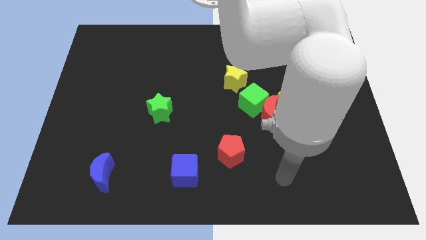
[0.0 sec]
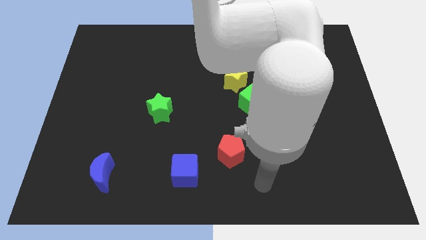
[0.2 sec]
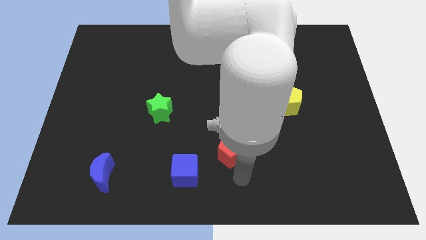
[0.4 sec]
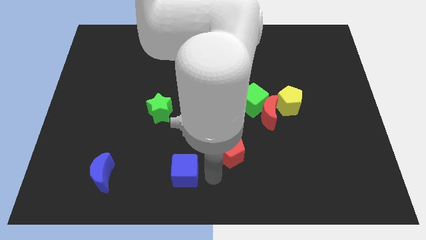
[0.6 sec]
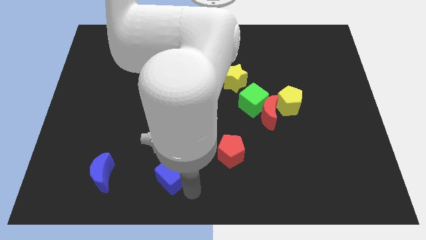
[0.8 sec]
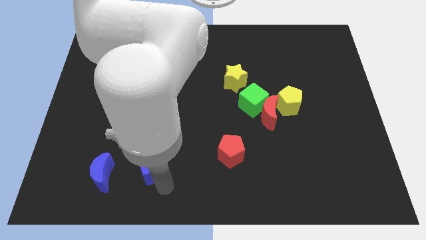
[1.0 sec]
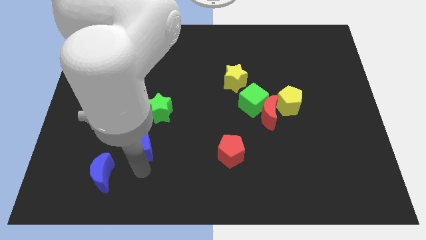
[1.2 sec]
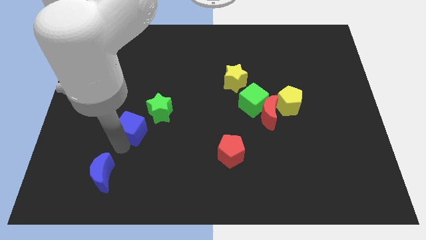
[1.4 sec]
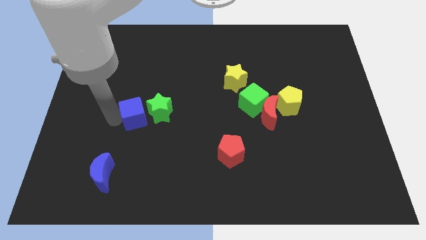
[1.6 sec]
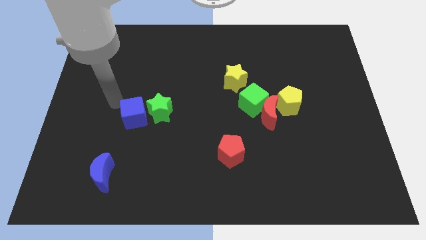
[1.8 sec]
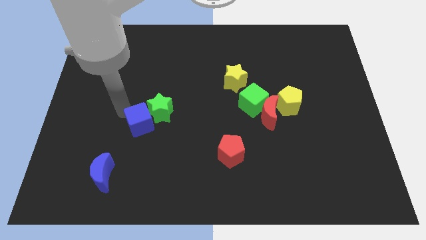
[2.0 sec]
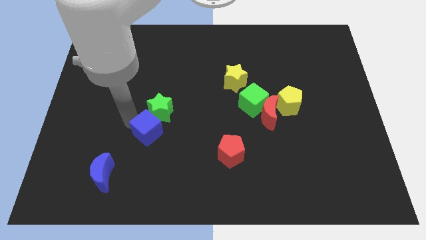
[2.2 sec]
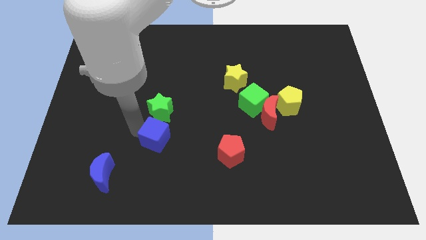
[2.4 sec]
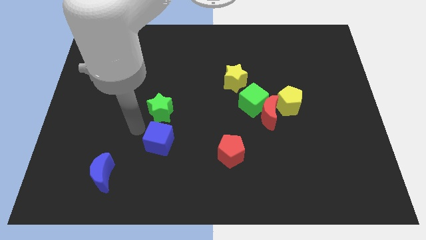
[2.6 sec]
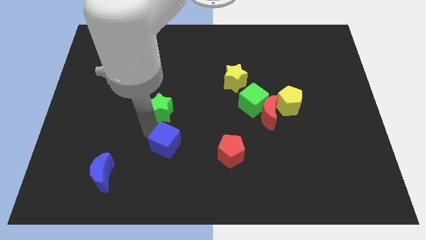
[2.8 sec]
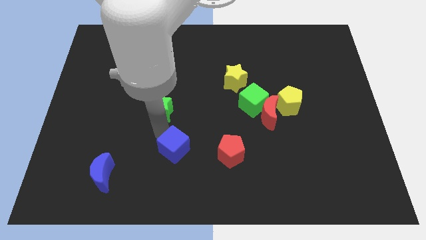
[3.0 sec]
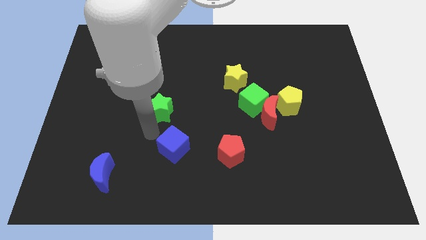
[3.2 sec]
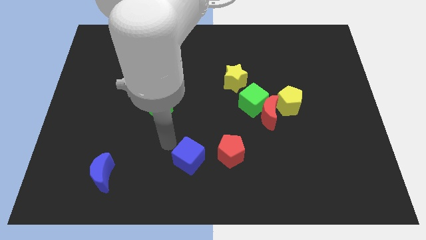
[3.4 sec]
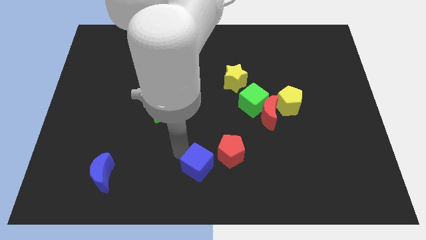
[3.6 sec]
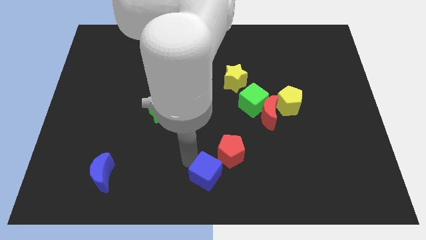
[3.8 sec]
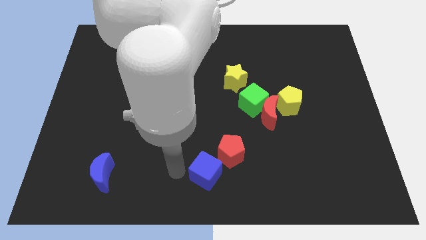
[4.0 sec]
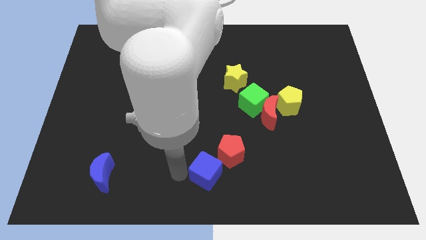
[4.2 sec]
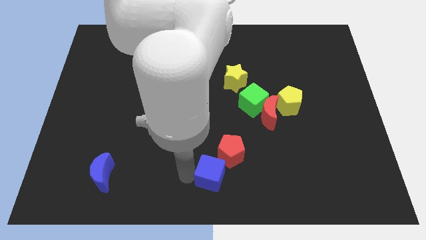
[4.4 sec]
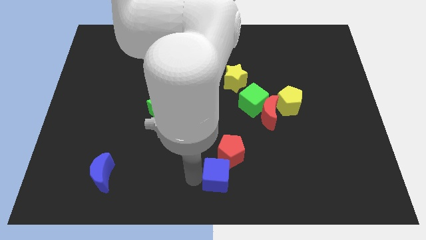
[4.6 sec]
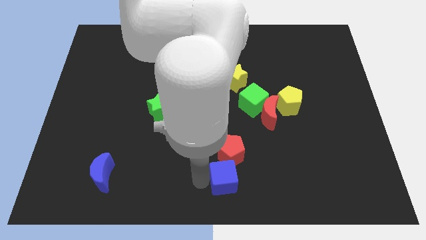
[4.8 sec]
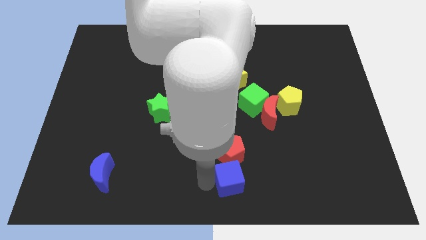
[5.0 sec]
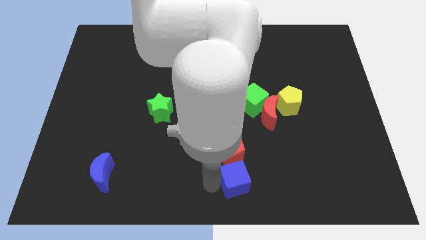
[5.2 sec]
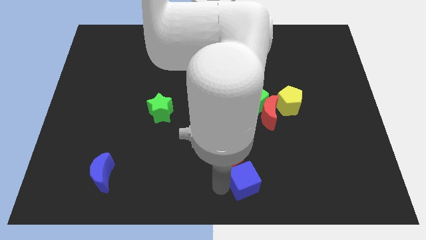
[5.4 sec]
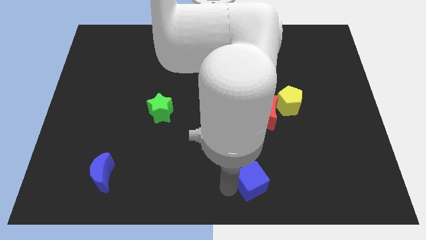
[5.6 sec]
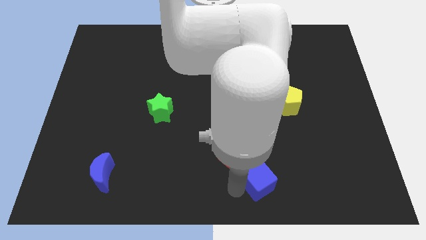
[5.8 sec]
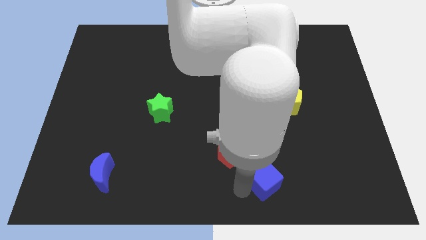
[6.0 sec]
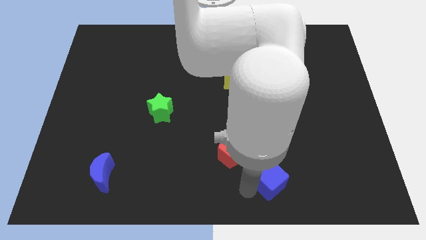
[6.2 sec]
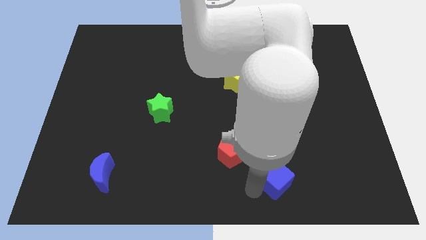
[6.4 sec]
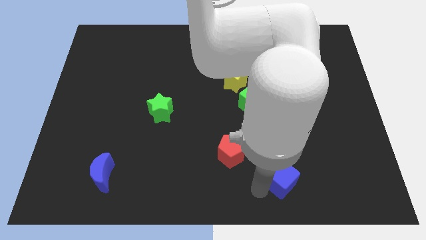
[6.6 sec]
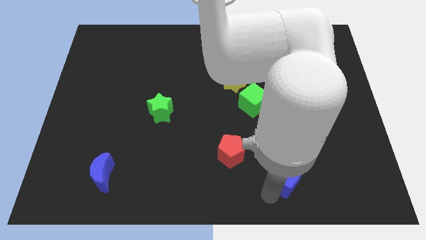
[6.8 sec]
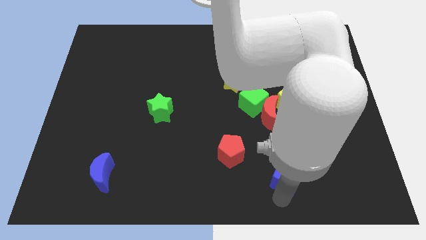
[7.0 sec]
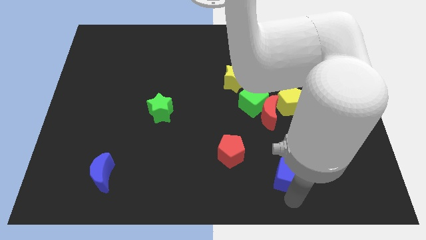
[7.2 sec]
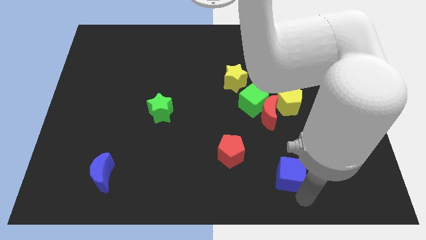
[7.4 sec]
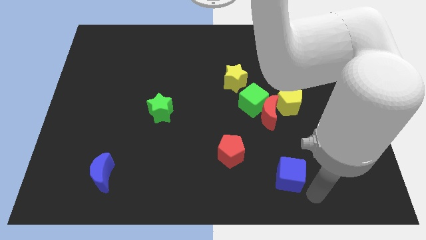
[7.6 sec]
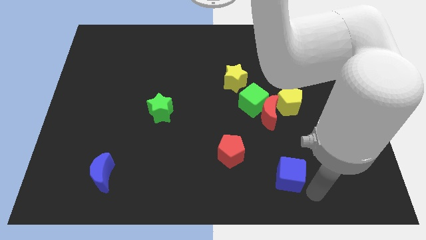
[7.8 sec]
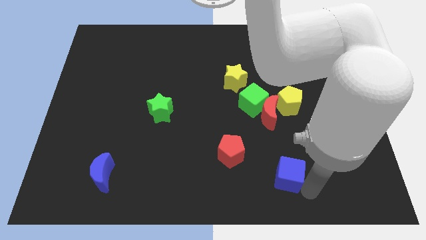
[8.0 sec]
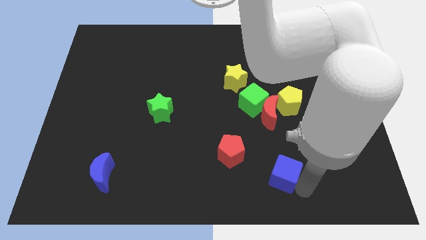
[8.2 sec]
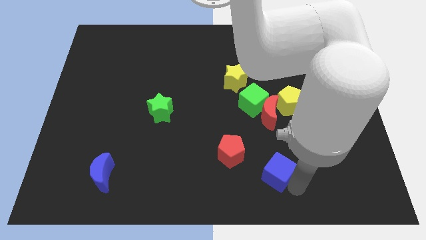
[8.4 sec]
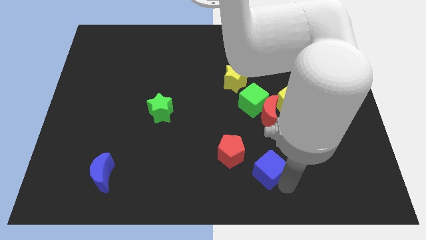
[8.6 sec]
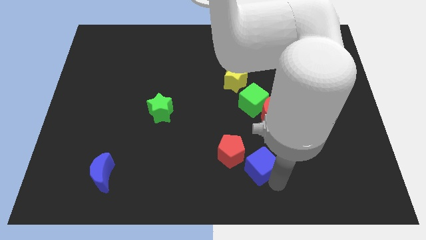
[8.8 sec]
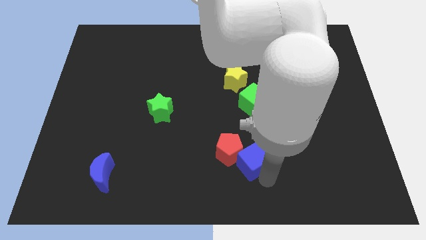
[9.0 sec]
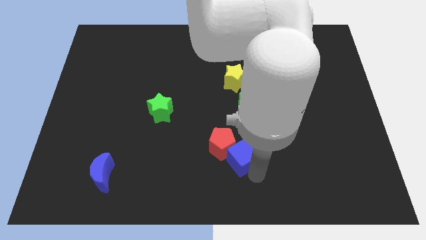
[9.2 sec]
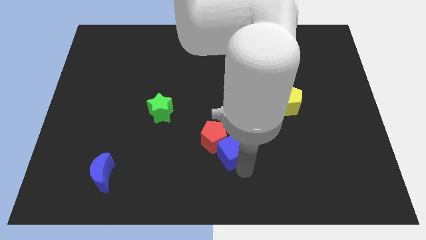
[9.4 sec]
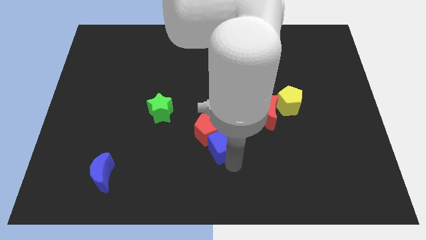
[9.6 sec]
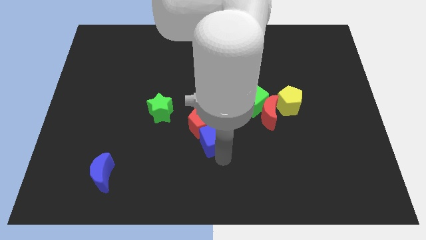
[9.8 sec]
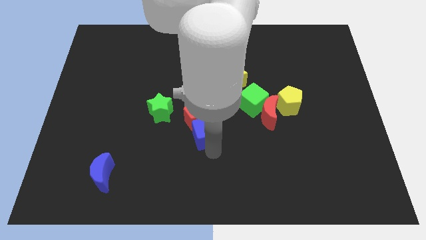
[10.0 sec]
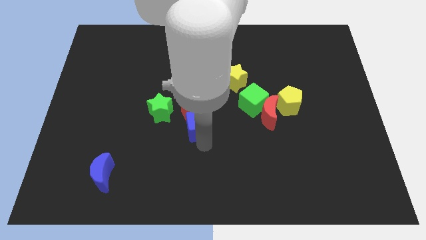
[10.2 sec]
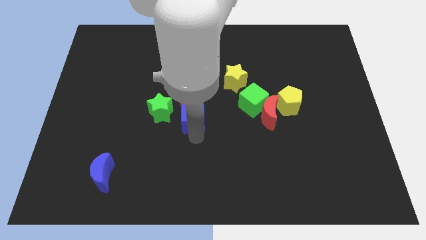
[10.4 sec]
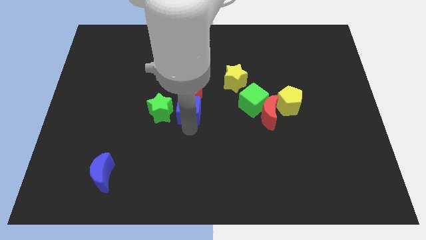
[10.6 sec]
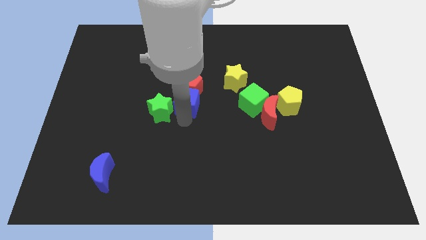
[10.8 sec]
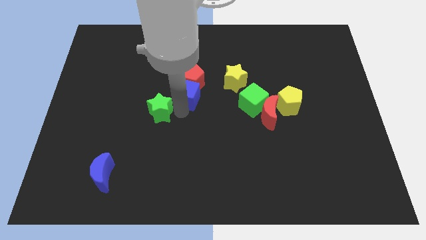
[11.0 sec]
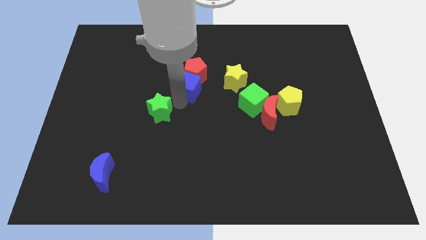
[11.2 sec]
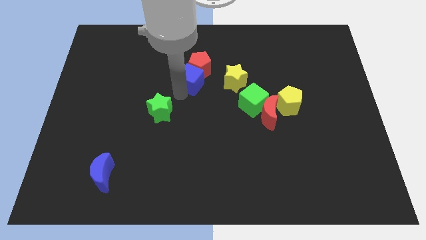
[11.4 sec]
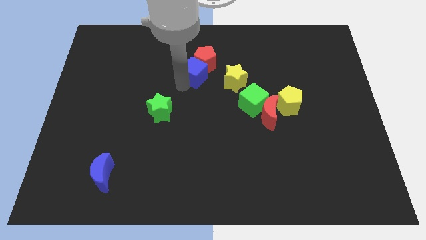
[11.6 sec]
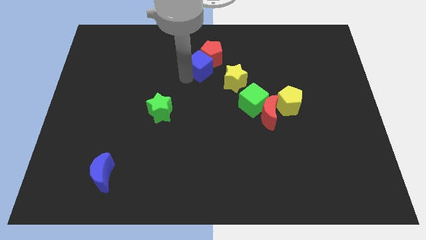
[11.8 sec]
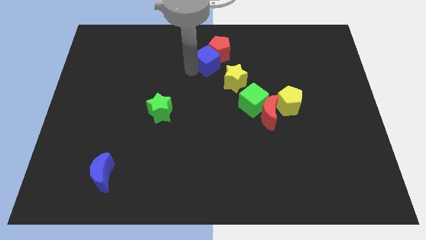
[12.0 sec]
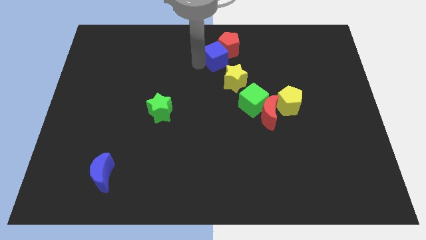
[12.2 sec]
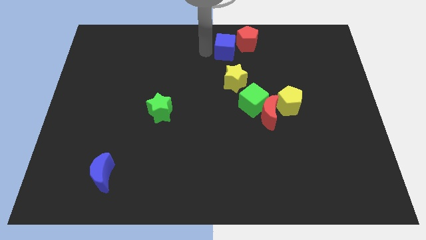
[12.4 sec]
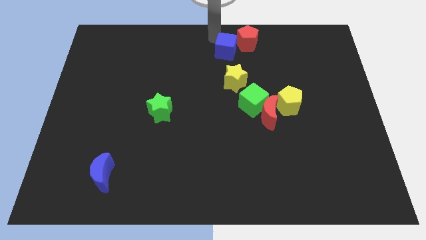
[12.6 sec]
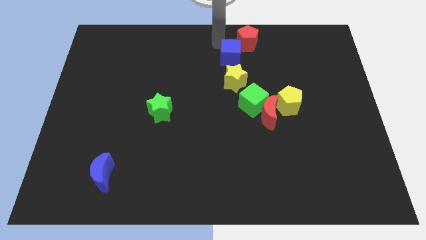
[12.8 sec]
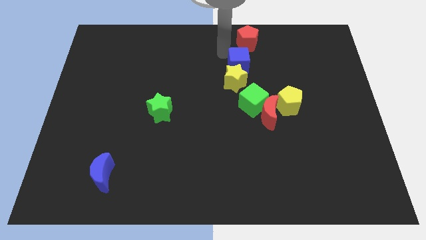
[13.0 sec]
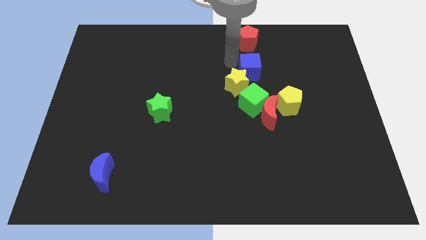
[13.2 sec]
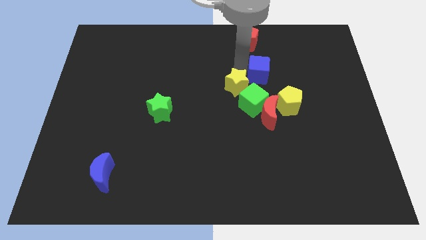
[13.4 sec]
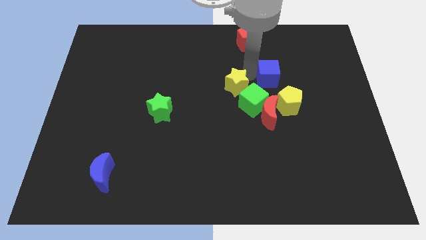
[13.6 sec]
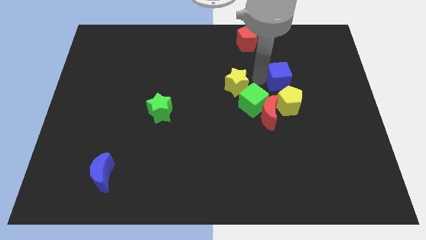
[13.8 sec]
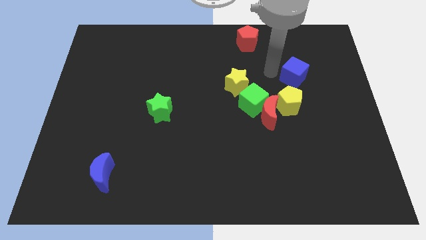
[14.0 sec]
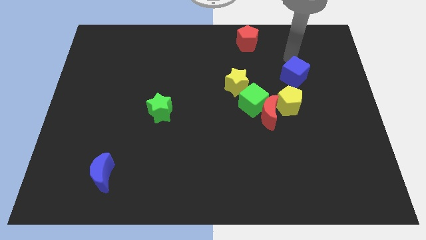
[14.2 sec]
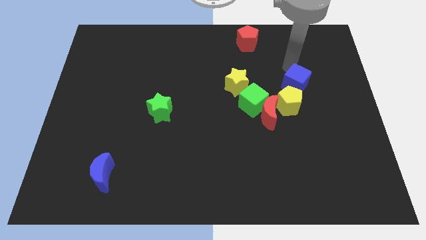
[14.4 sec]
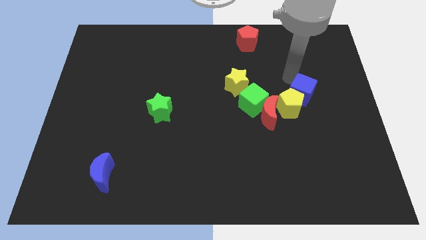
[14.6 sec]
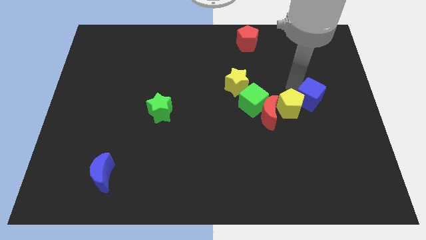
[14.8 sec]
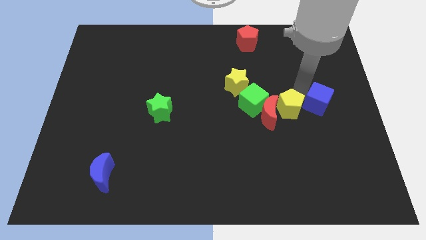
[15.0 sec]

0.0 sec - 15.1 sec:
slide the blue cube to the center right
